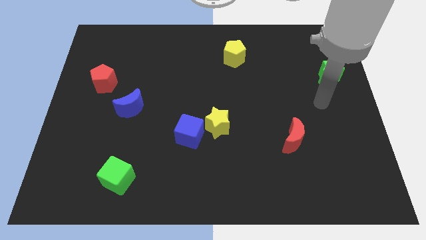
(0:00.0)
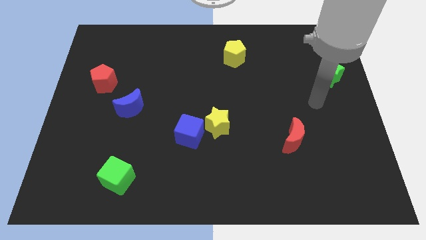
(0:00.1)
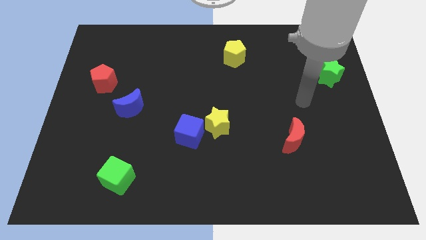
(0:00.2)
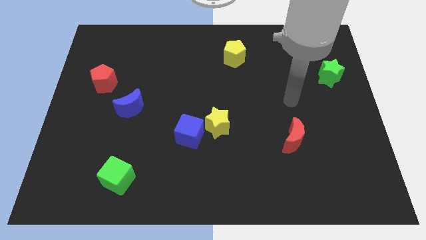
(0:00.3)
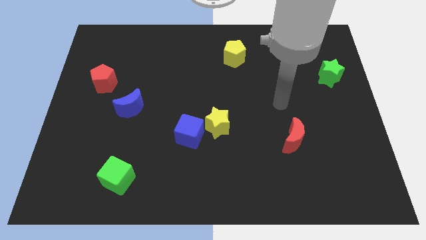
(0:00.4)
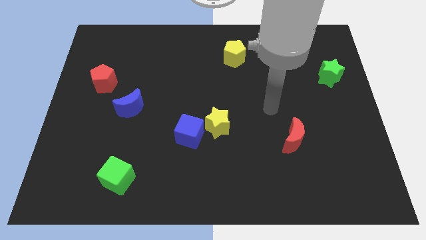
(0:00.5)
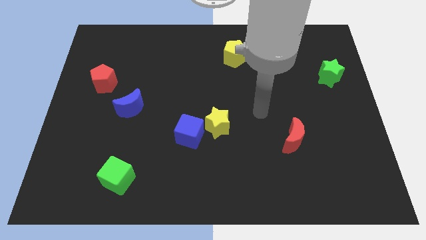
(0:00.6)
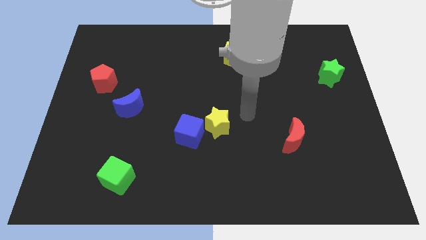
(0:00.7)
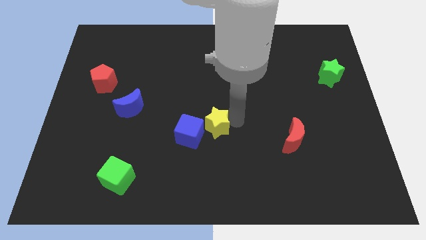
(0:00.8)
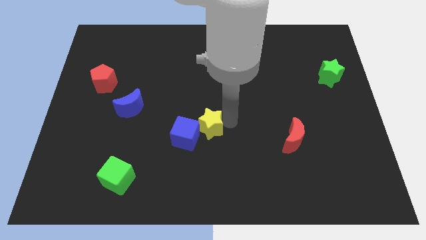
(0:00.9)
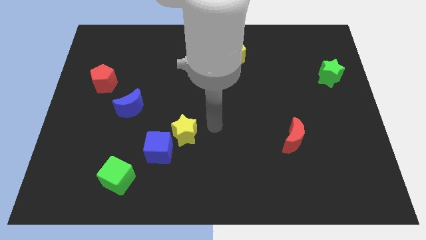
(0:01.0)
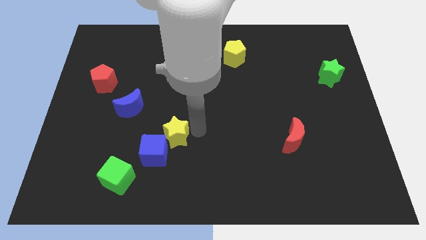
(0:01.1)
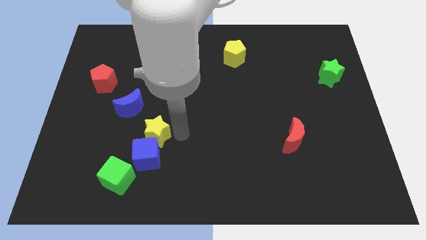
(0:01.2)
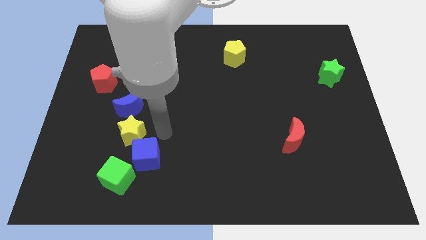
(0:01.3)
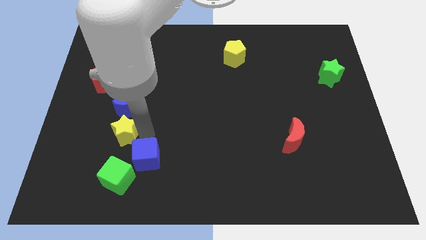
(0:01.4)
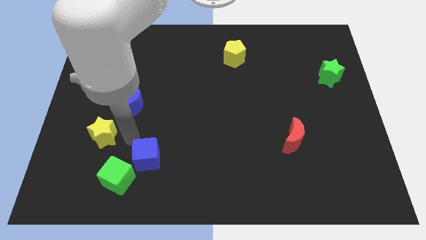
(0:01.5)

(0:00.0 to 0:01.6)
move the blue cube away from the yellow star

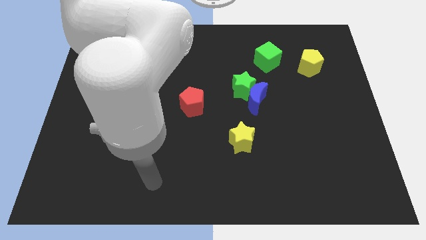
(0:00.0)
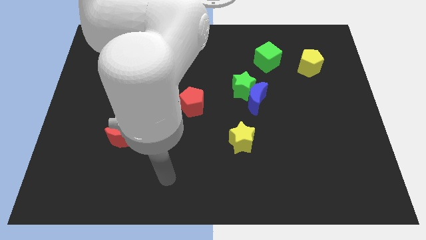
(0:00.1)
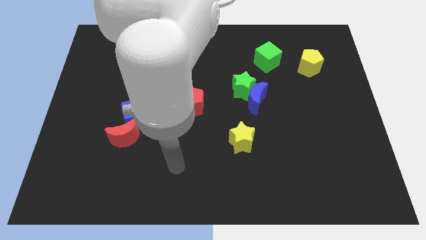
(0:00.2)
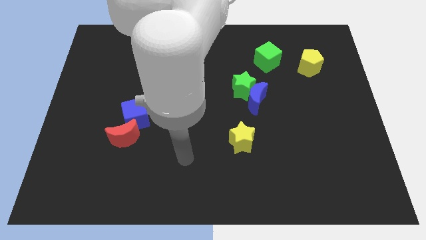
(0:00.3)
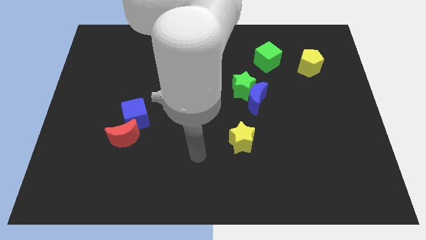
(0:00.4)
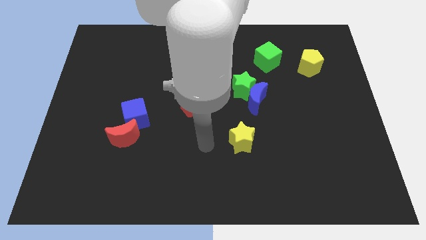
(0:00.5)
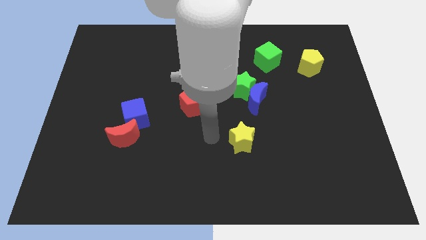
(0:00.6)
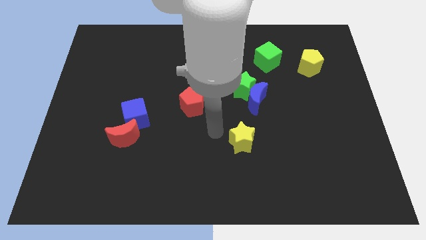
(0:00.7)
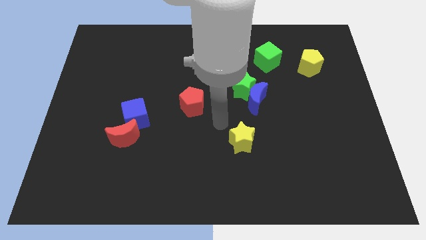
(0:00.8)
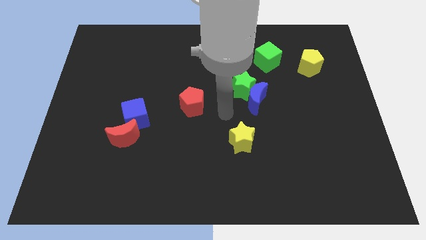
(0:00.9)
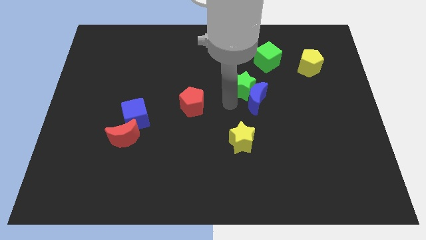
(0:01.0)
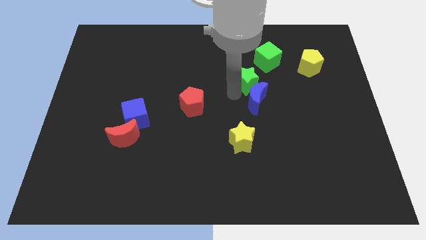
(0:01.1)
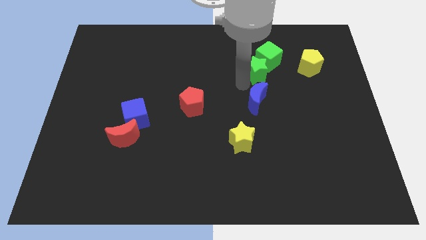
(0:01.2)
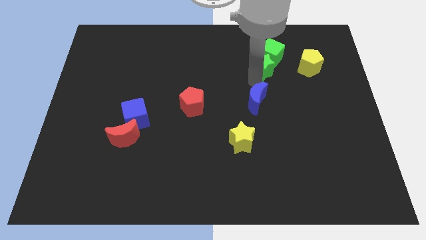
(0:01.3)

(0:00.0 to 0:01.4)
separate the blue moon from the green star

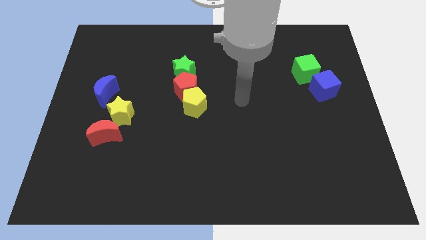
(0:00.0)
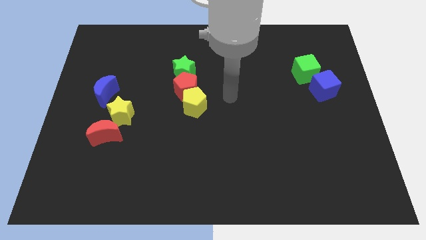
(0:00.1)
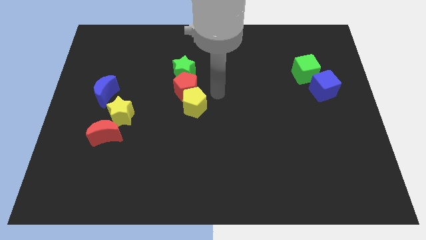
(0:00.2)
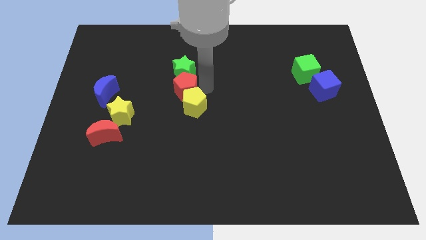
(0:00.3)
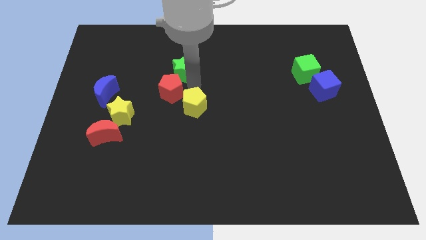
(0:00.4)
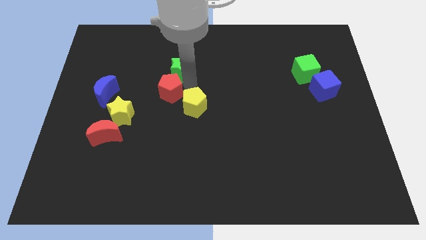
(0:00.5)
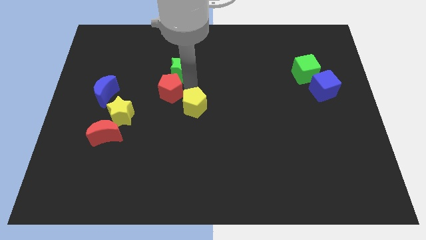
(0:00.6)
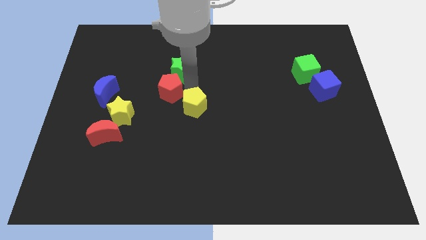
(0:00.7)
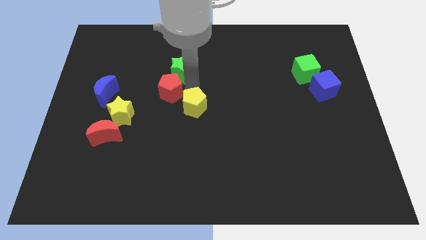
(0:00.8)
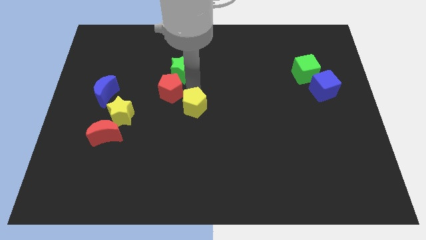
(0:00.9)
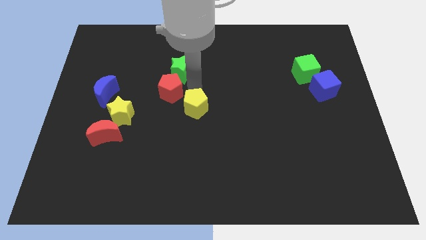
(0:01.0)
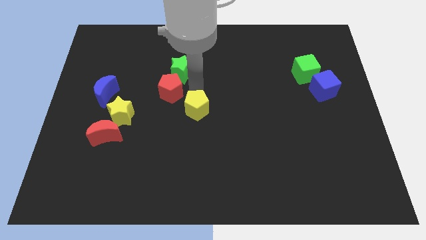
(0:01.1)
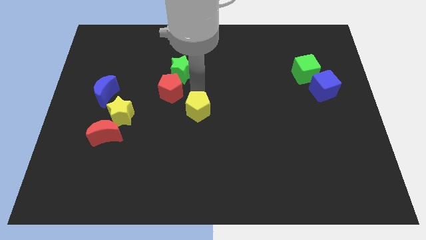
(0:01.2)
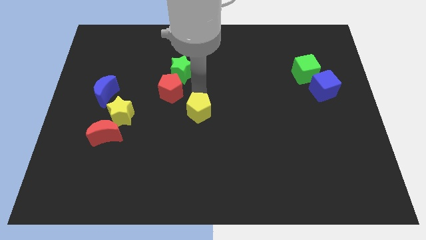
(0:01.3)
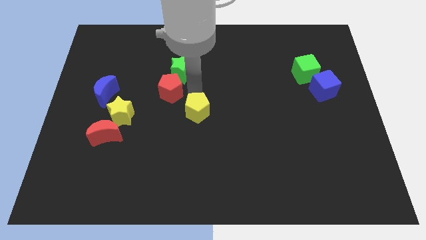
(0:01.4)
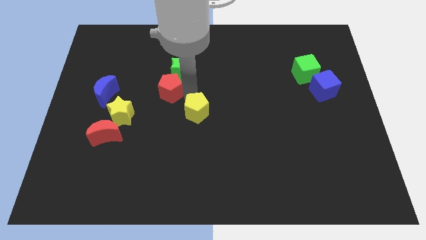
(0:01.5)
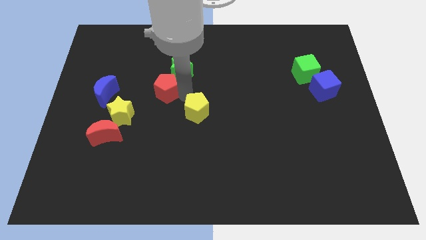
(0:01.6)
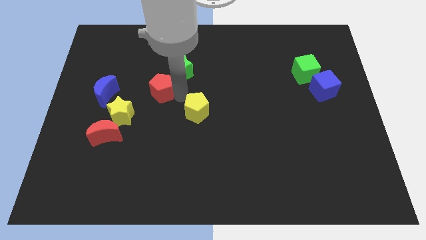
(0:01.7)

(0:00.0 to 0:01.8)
separate the yellow pentagon from the red pentagon

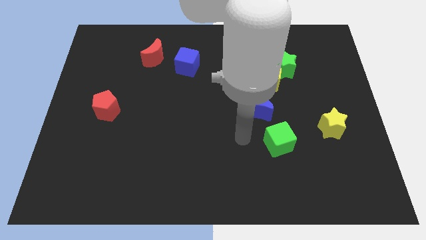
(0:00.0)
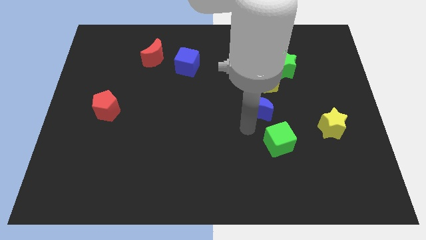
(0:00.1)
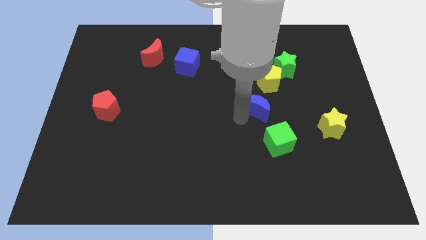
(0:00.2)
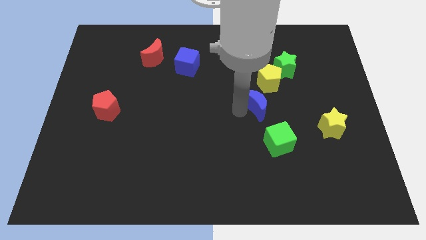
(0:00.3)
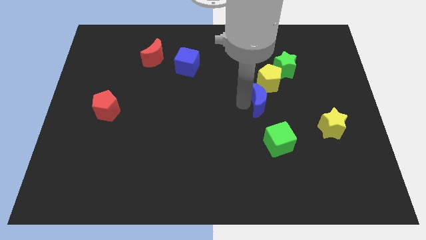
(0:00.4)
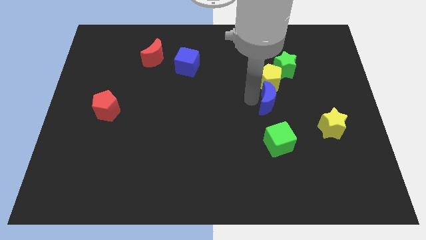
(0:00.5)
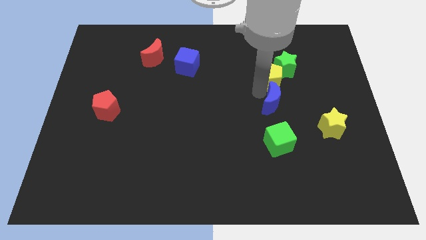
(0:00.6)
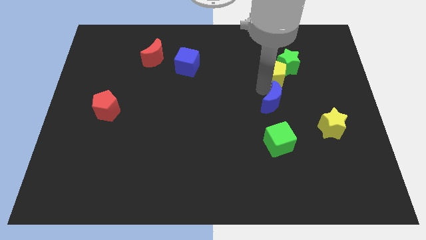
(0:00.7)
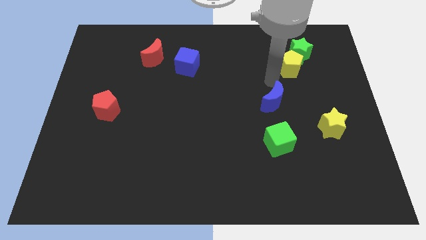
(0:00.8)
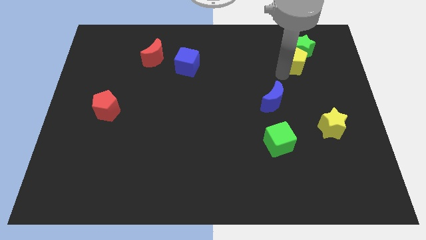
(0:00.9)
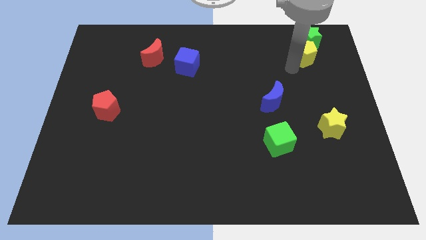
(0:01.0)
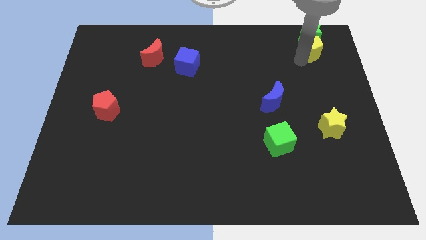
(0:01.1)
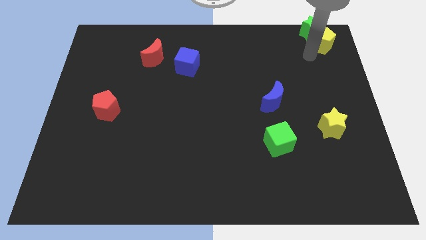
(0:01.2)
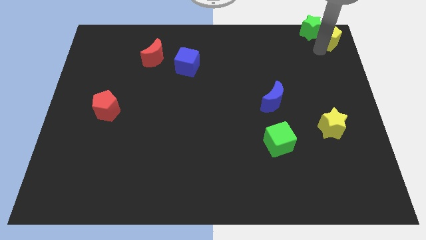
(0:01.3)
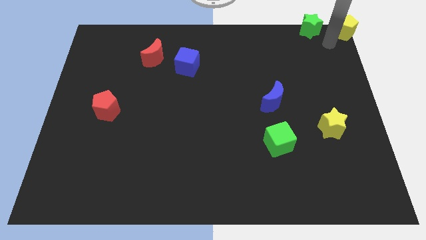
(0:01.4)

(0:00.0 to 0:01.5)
separate the green star from the yellow pentagon

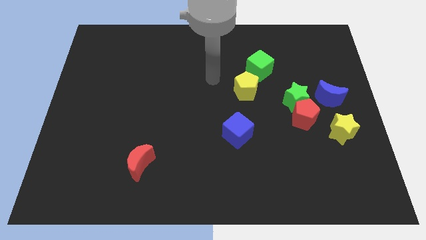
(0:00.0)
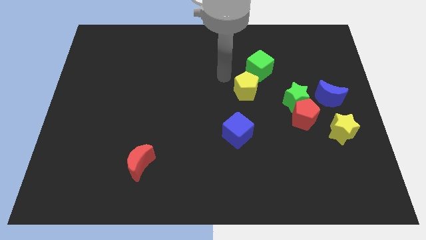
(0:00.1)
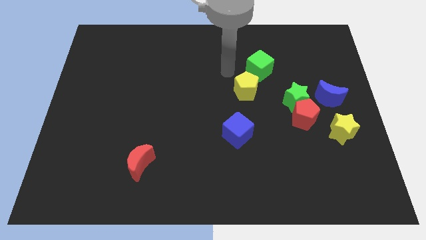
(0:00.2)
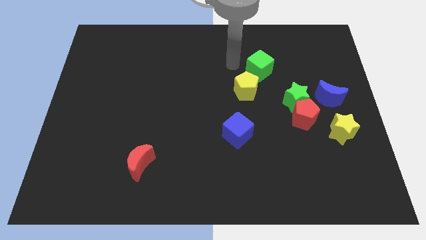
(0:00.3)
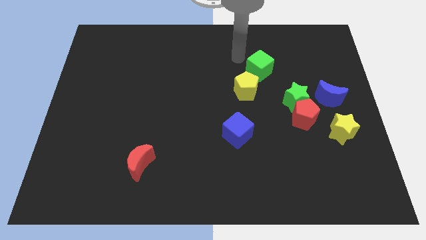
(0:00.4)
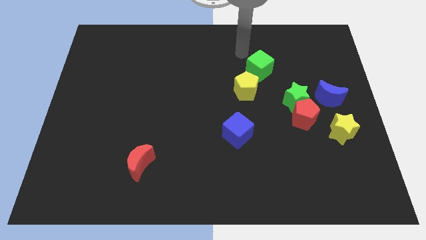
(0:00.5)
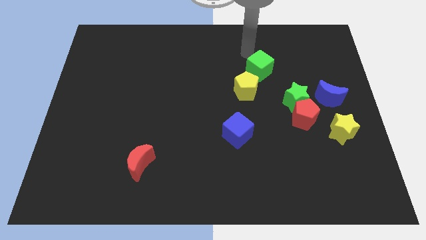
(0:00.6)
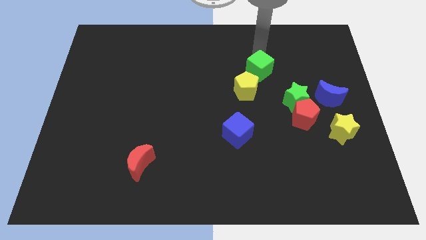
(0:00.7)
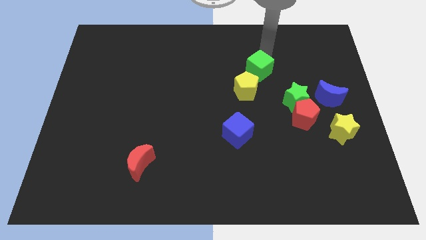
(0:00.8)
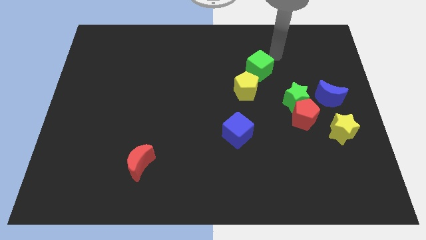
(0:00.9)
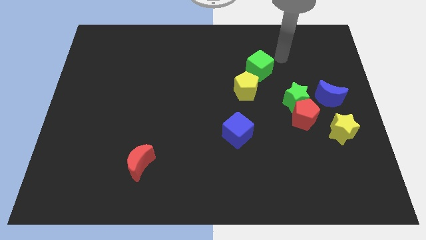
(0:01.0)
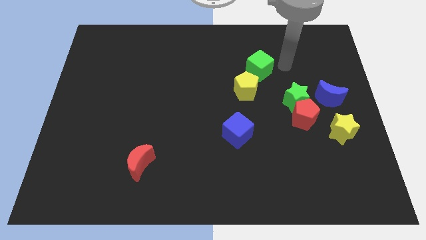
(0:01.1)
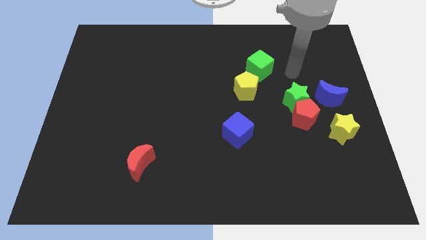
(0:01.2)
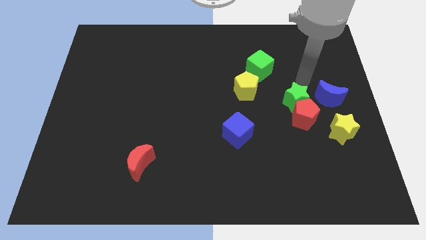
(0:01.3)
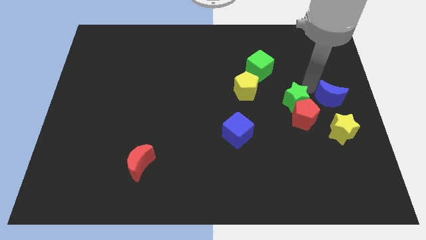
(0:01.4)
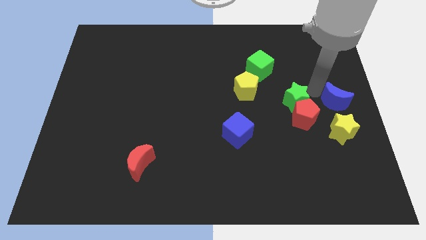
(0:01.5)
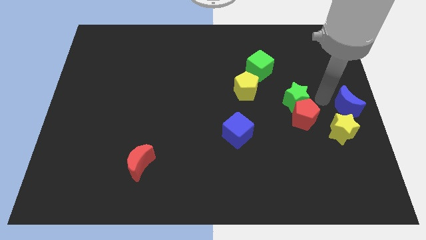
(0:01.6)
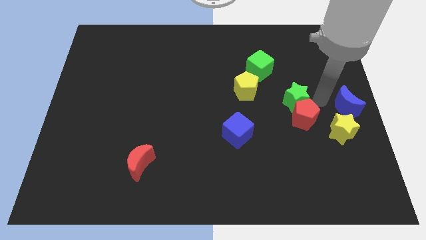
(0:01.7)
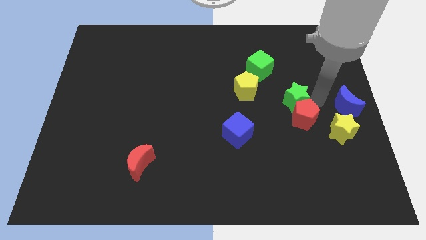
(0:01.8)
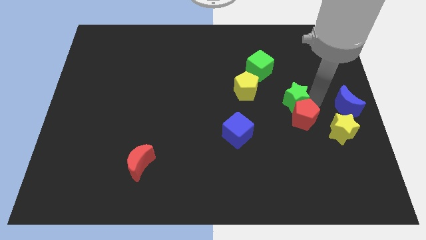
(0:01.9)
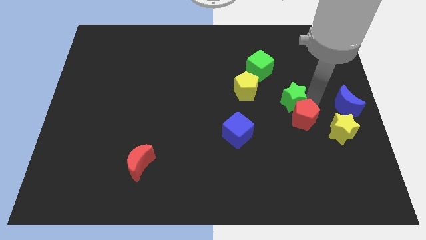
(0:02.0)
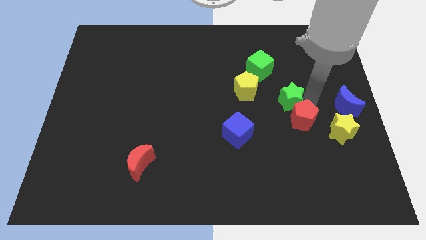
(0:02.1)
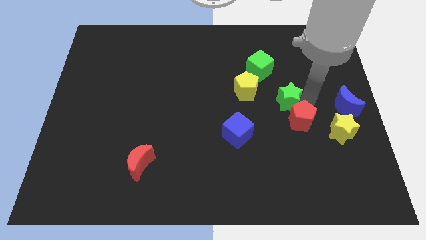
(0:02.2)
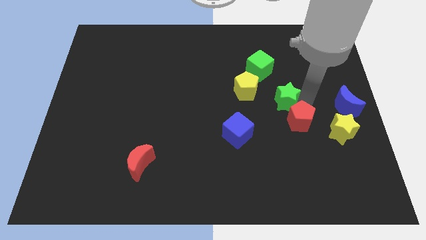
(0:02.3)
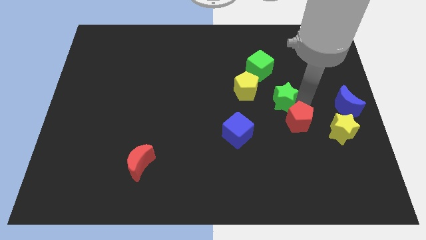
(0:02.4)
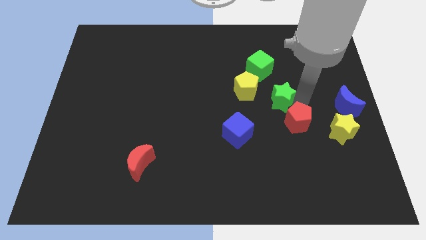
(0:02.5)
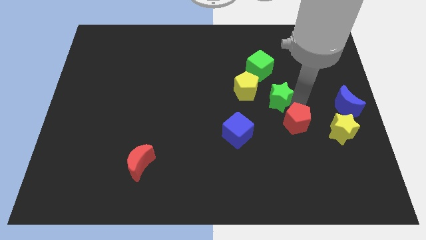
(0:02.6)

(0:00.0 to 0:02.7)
pull the green star apart from the red pentagon and blue moon

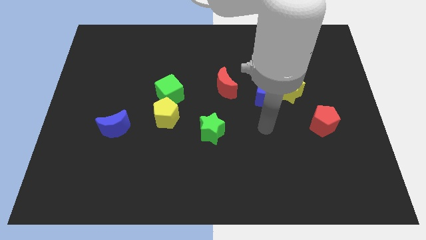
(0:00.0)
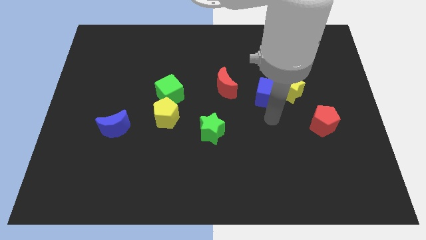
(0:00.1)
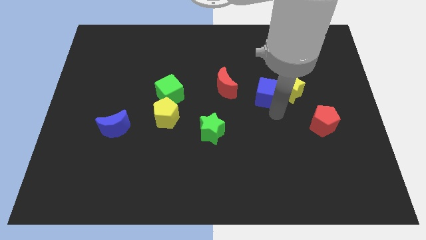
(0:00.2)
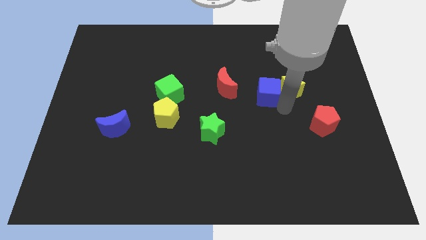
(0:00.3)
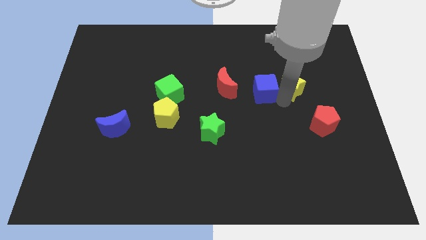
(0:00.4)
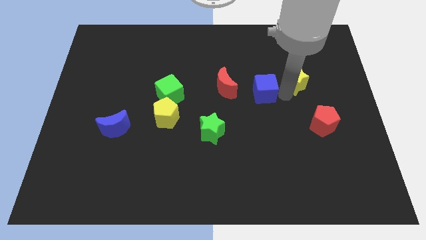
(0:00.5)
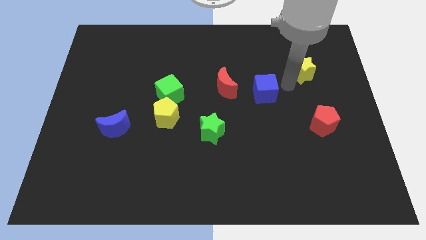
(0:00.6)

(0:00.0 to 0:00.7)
separate the blue cube from the yellow star
